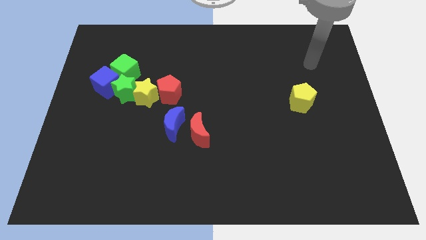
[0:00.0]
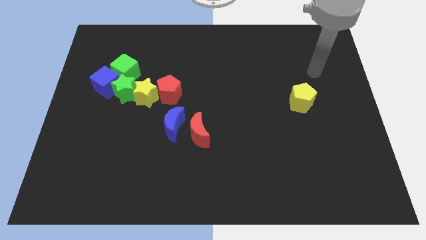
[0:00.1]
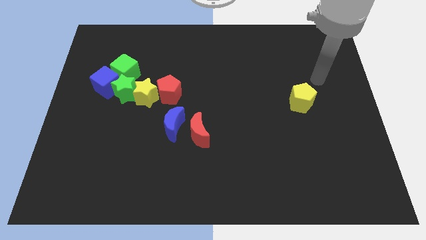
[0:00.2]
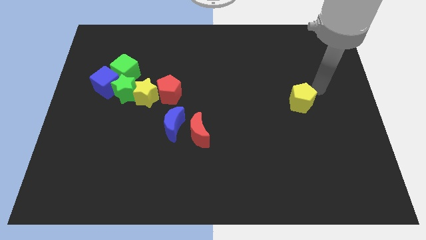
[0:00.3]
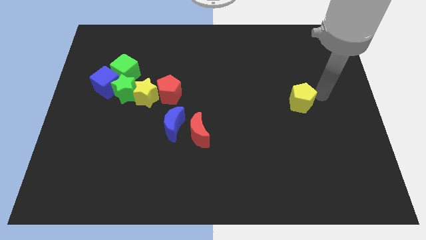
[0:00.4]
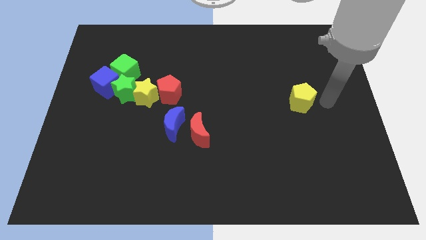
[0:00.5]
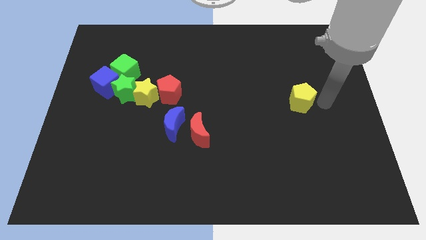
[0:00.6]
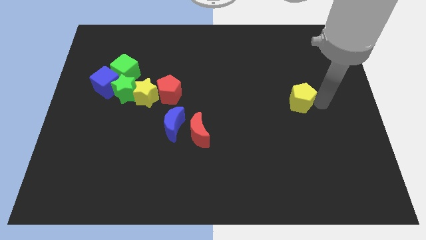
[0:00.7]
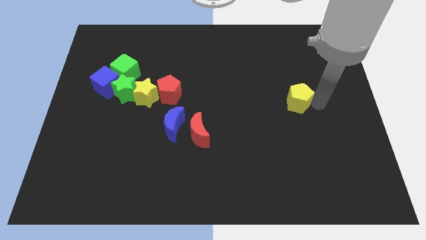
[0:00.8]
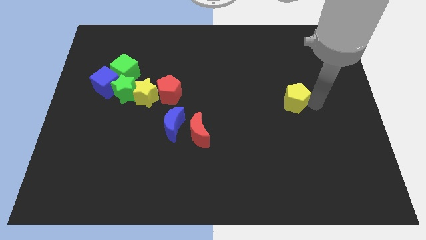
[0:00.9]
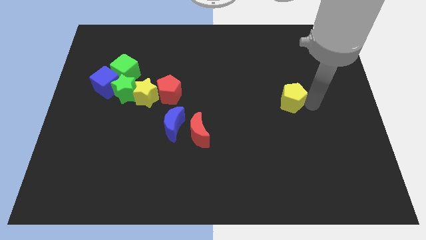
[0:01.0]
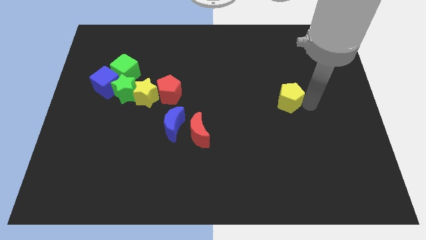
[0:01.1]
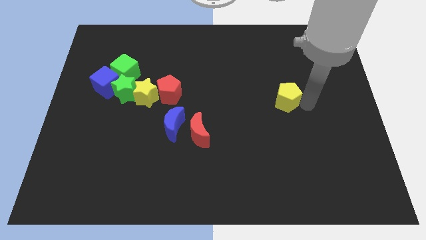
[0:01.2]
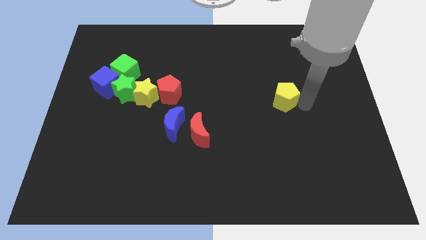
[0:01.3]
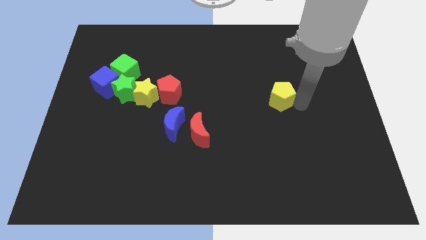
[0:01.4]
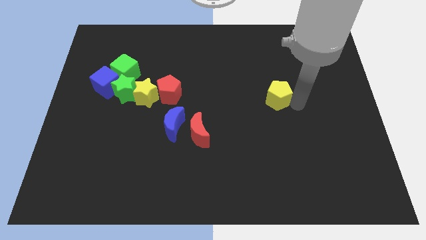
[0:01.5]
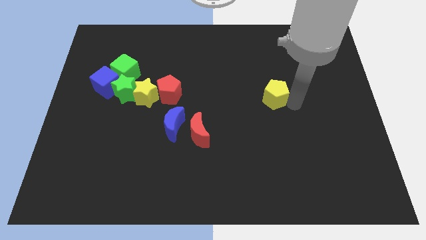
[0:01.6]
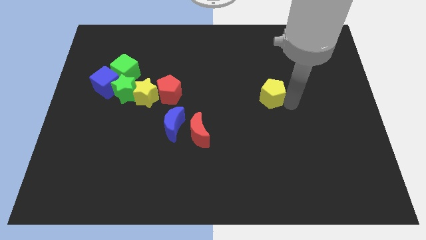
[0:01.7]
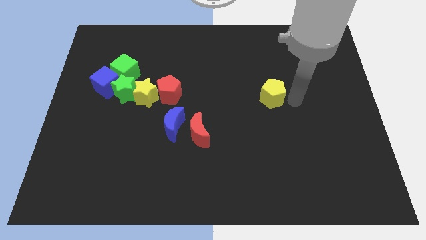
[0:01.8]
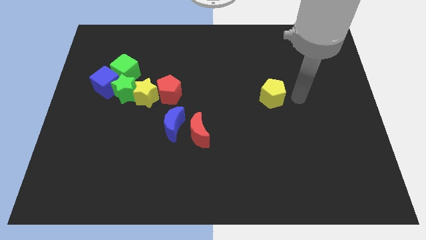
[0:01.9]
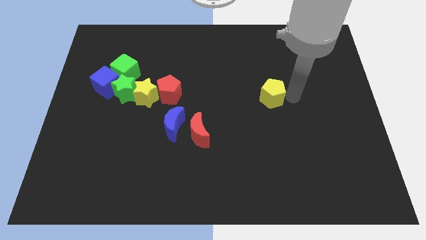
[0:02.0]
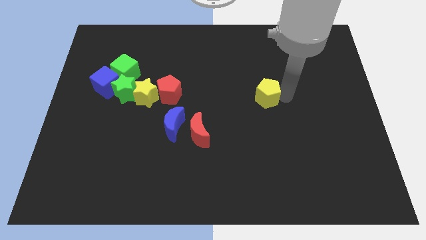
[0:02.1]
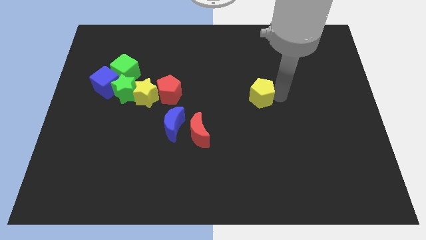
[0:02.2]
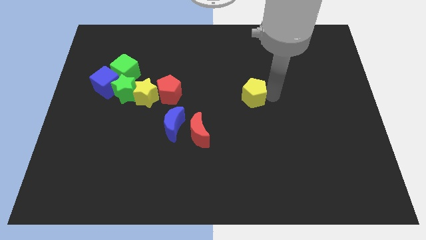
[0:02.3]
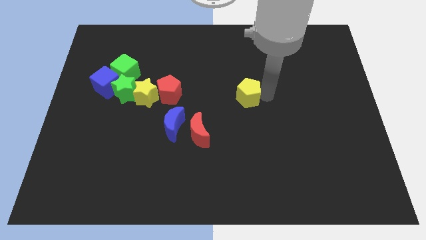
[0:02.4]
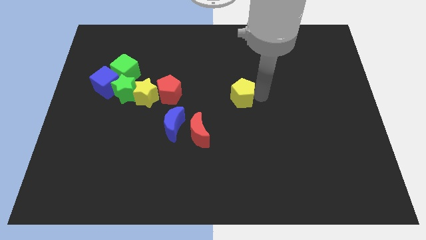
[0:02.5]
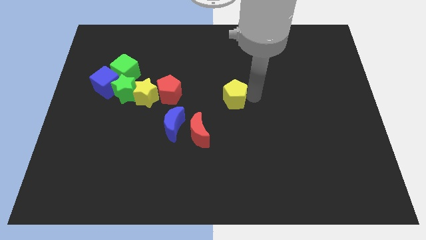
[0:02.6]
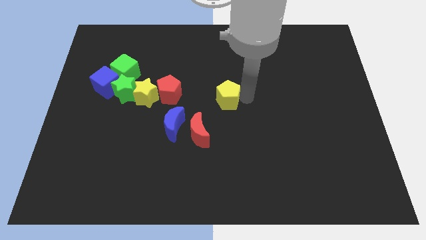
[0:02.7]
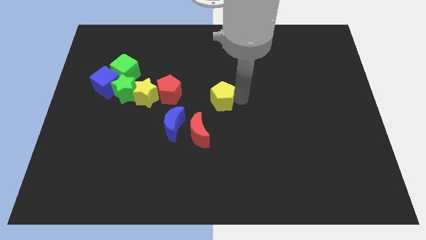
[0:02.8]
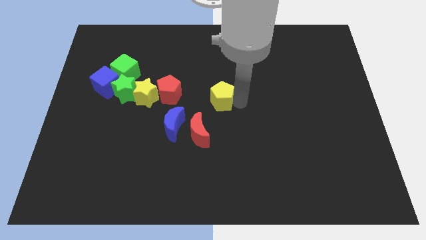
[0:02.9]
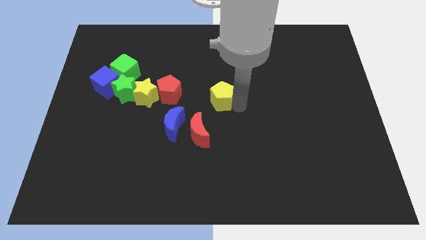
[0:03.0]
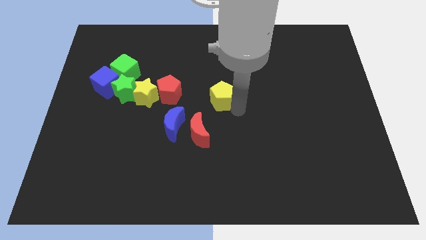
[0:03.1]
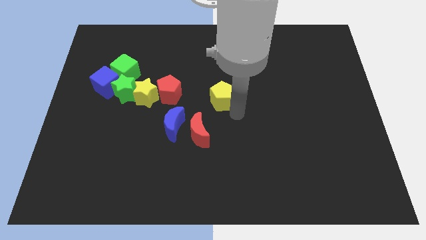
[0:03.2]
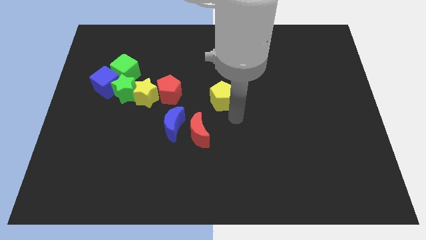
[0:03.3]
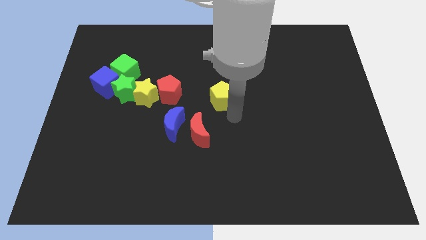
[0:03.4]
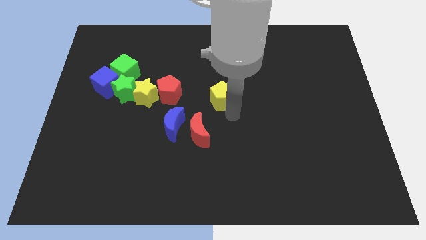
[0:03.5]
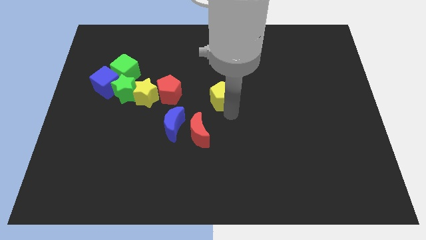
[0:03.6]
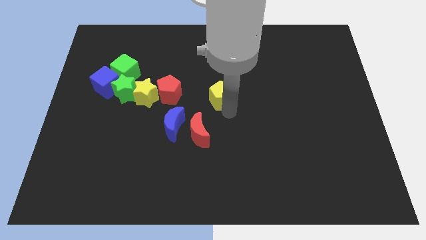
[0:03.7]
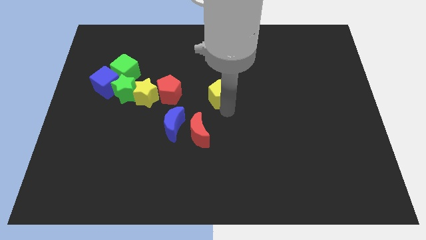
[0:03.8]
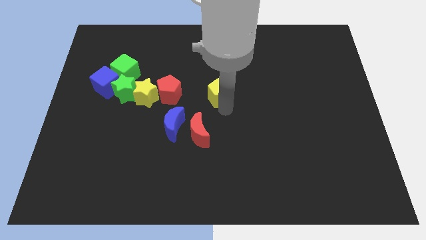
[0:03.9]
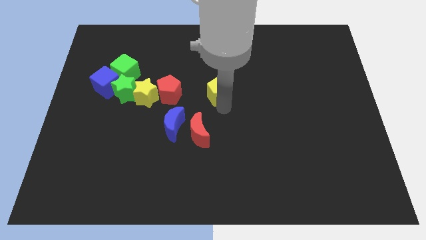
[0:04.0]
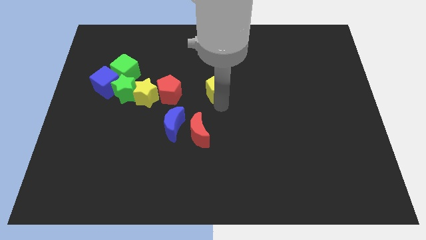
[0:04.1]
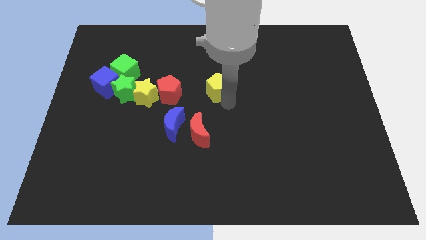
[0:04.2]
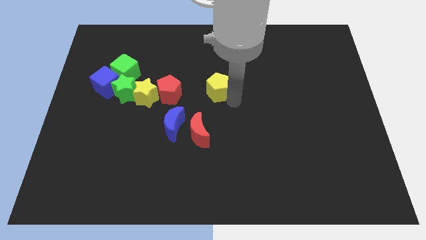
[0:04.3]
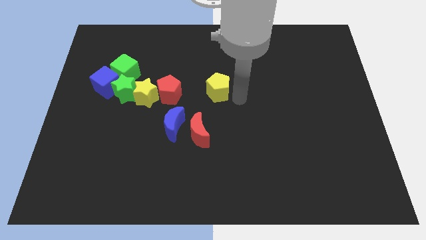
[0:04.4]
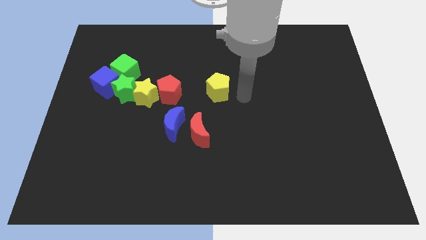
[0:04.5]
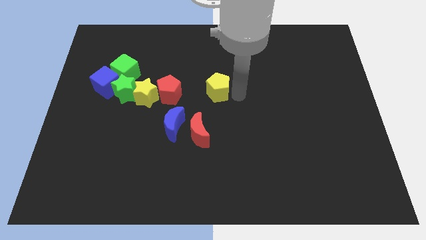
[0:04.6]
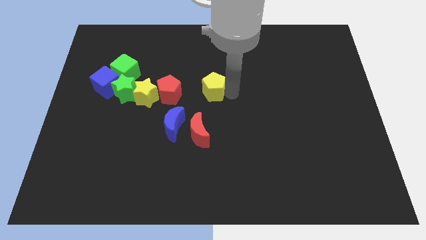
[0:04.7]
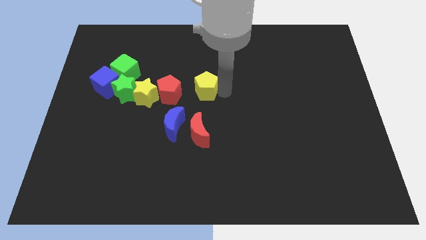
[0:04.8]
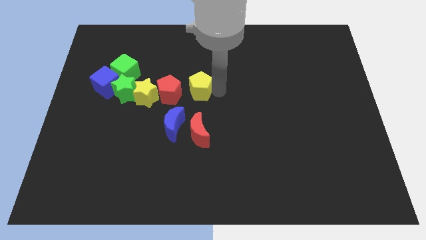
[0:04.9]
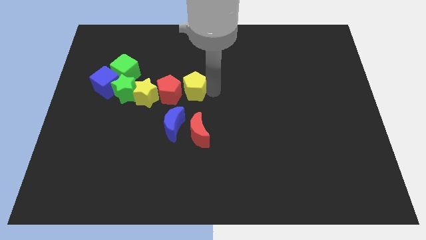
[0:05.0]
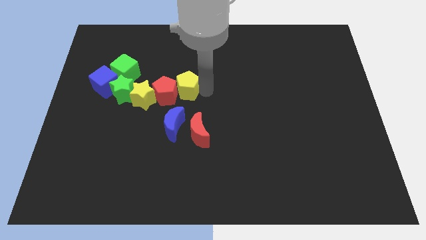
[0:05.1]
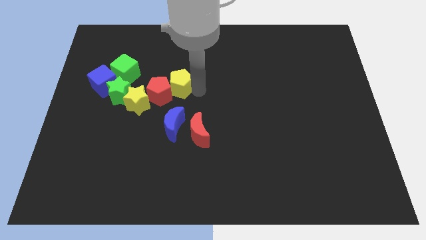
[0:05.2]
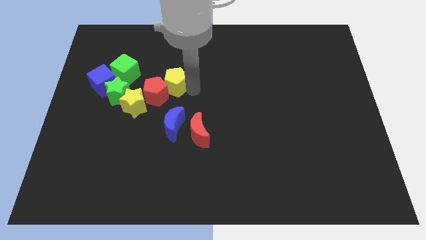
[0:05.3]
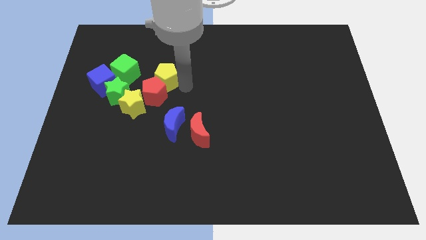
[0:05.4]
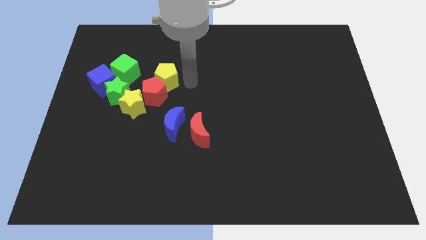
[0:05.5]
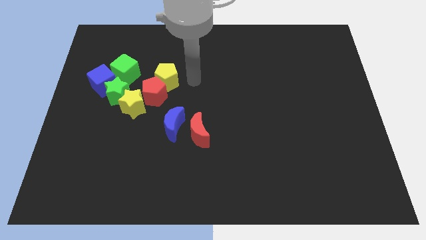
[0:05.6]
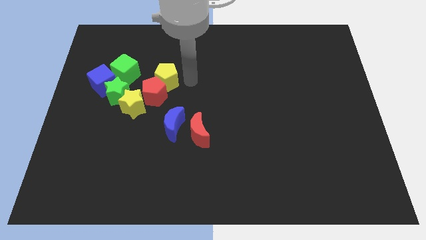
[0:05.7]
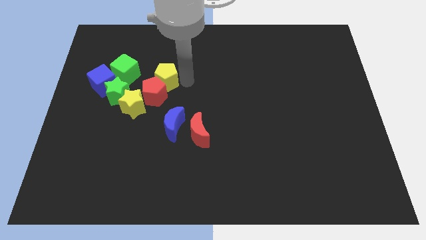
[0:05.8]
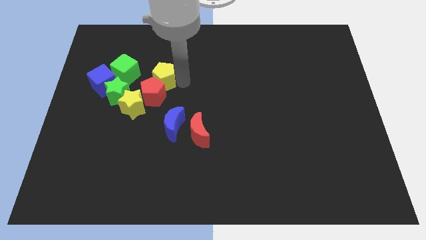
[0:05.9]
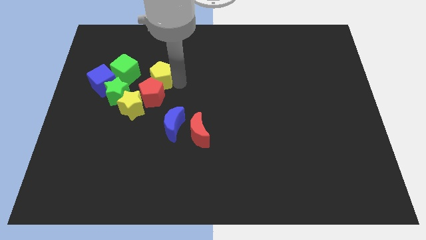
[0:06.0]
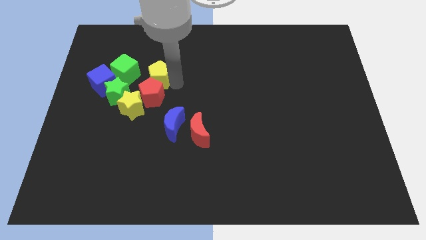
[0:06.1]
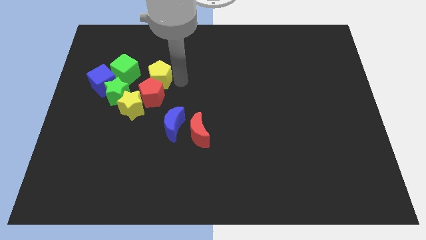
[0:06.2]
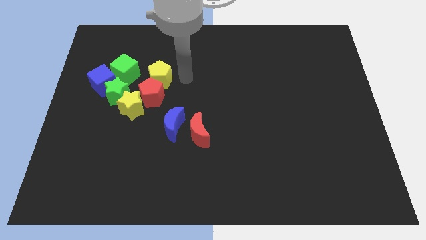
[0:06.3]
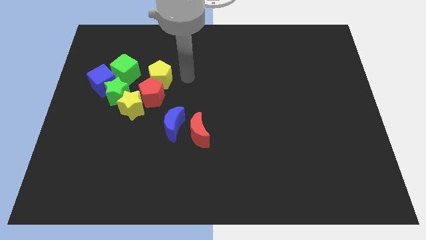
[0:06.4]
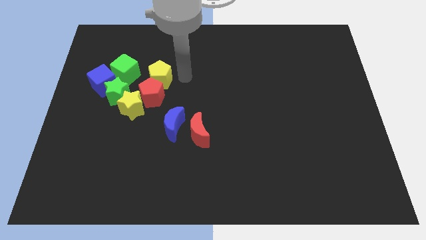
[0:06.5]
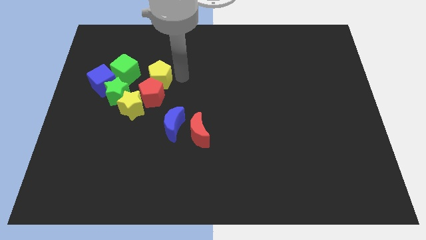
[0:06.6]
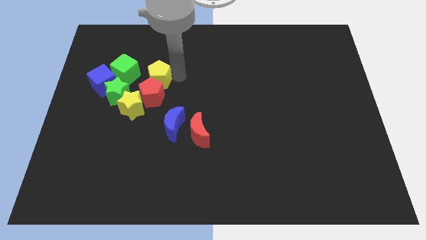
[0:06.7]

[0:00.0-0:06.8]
put the yellow pentagon to the top left side of the red pentagon

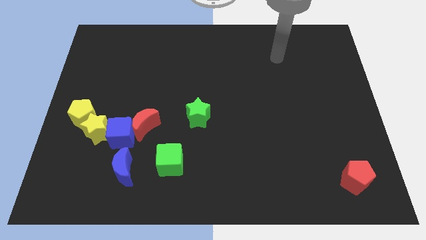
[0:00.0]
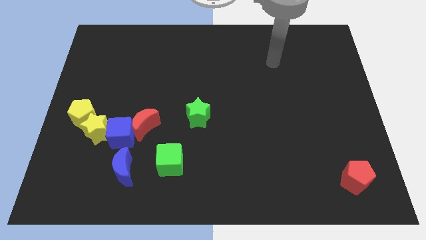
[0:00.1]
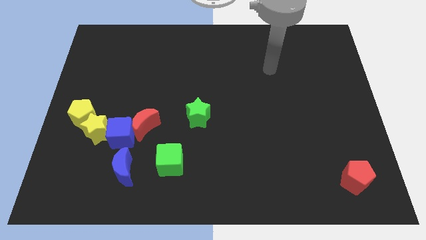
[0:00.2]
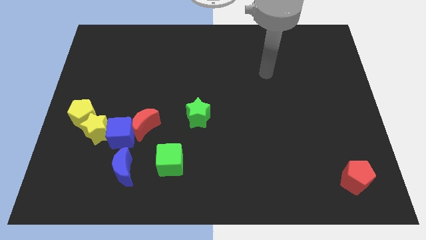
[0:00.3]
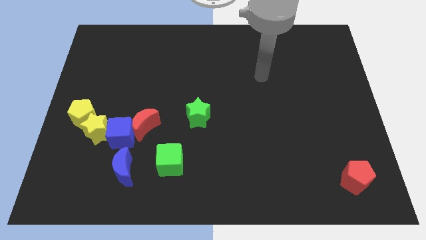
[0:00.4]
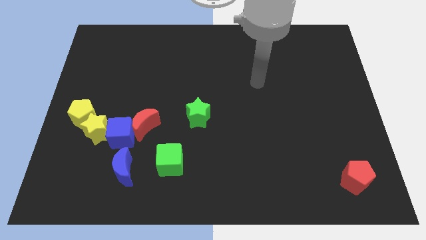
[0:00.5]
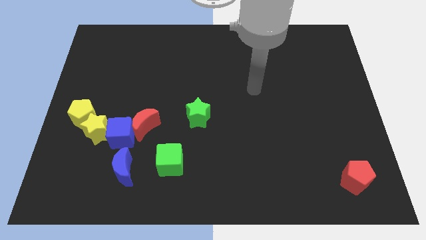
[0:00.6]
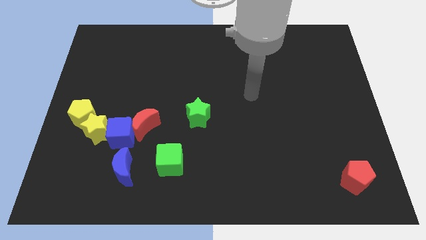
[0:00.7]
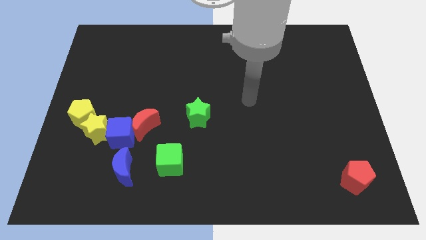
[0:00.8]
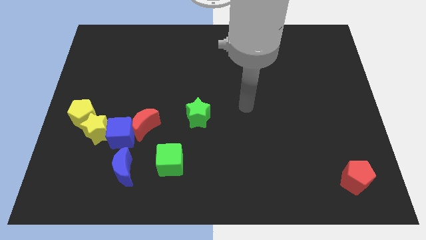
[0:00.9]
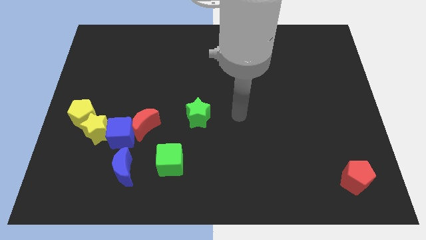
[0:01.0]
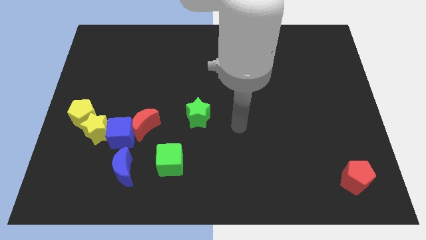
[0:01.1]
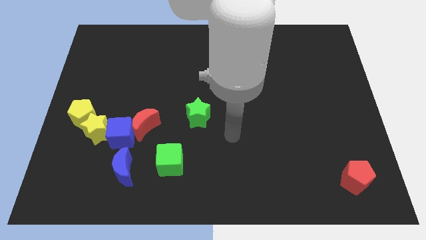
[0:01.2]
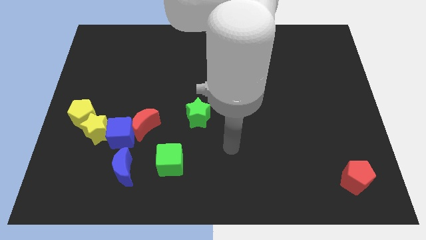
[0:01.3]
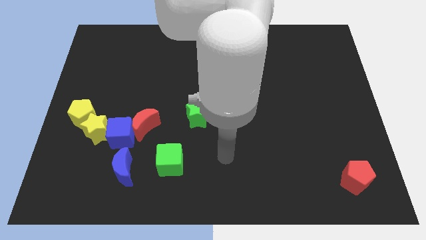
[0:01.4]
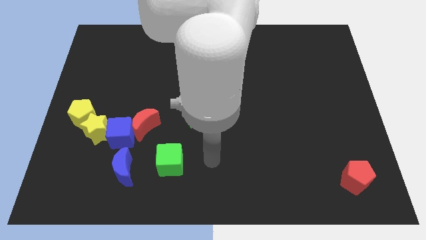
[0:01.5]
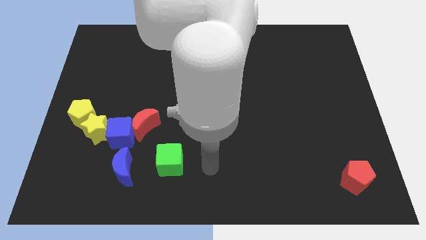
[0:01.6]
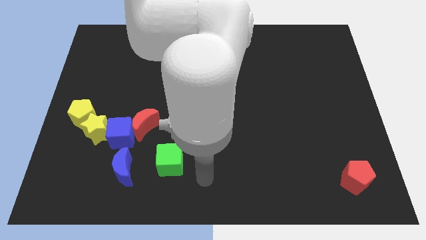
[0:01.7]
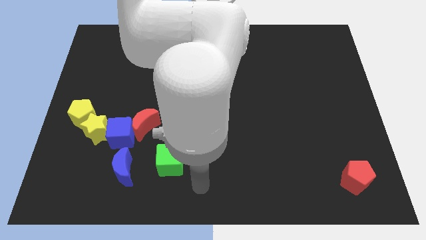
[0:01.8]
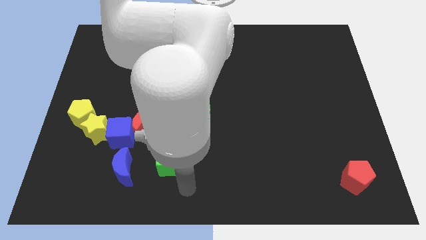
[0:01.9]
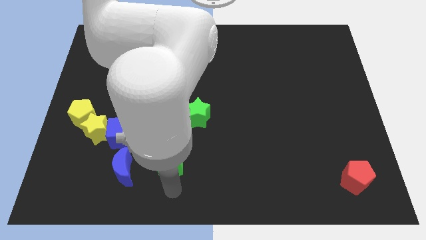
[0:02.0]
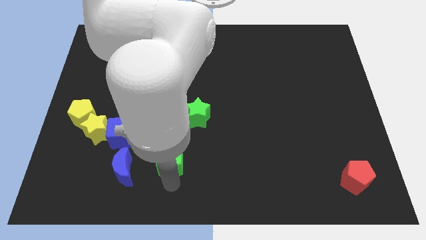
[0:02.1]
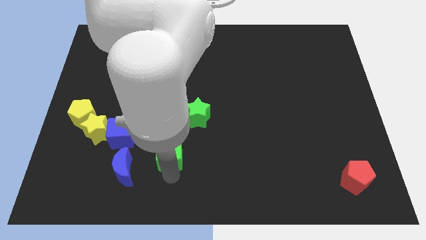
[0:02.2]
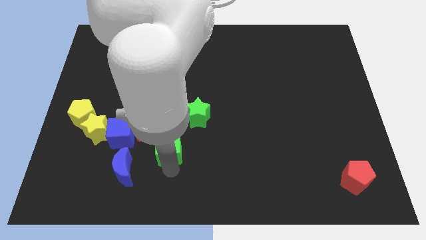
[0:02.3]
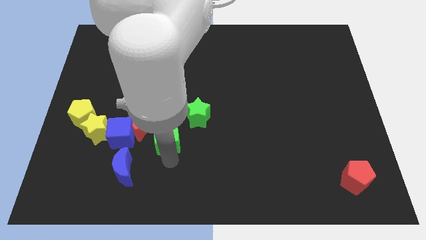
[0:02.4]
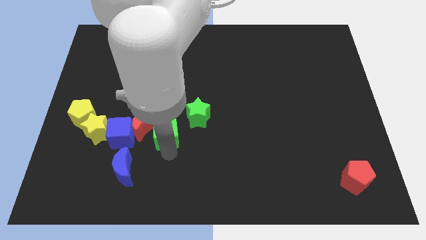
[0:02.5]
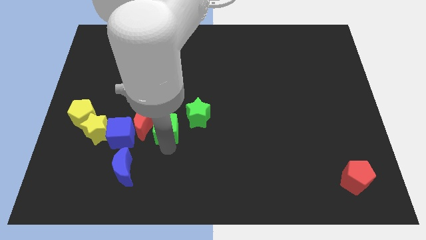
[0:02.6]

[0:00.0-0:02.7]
move the green cube just left of the green star
